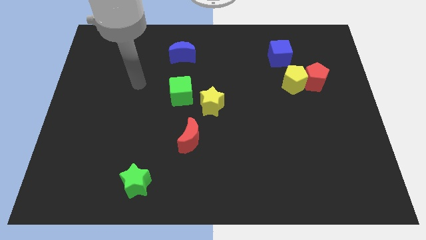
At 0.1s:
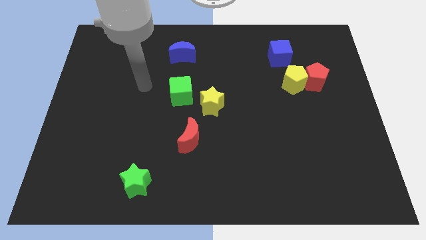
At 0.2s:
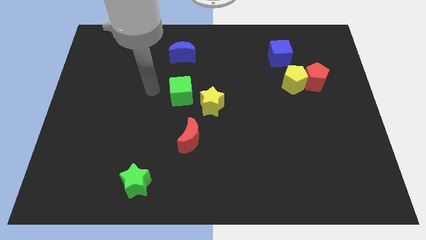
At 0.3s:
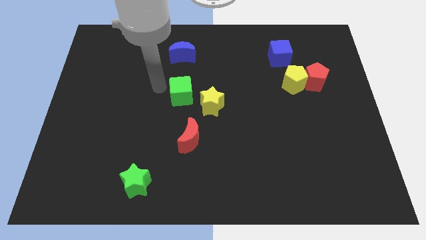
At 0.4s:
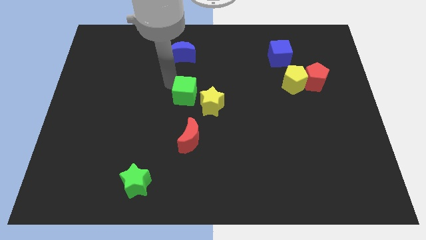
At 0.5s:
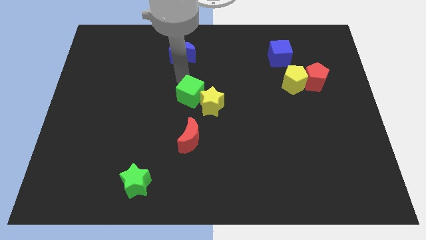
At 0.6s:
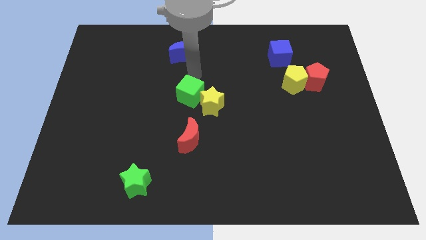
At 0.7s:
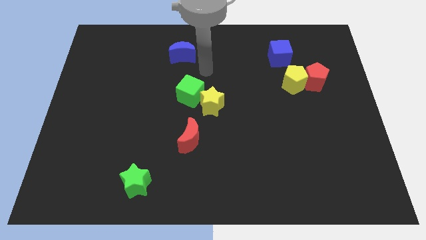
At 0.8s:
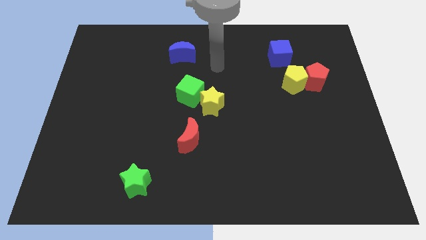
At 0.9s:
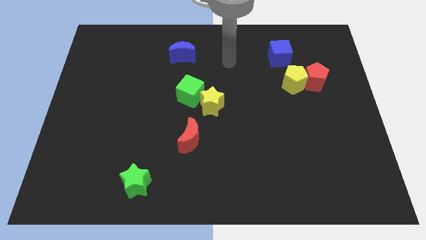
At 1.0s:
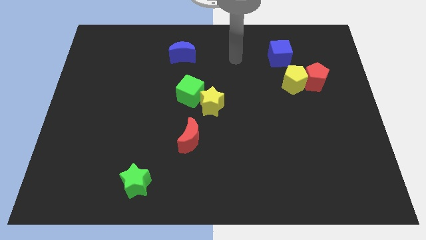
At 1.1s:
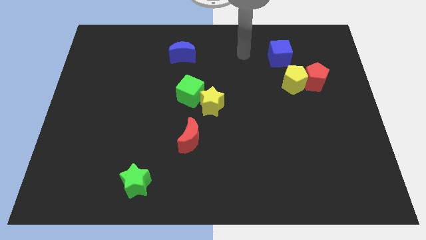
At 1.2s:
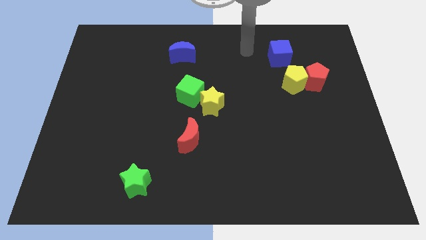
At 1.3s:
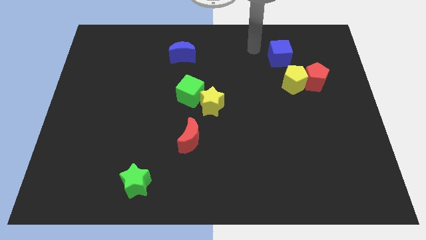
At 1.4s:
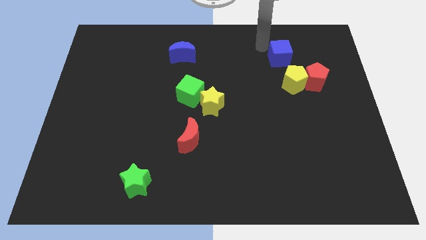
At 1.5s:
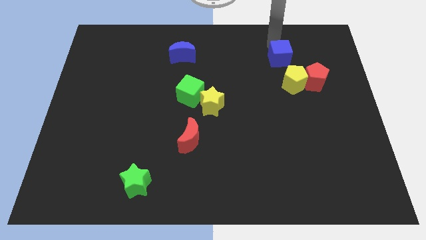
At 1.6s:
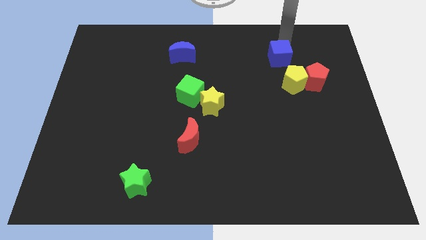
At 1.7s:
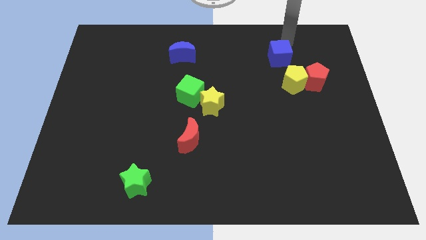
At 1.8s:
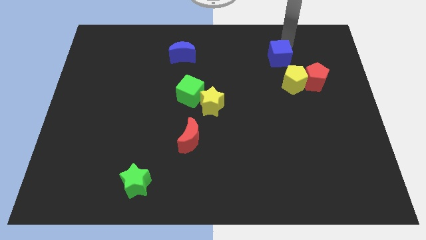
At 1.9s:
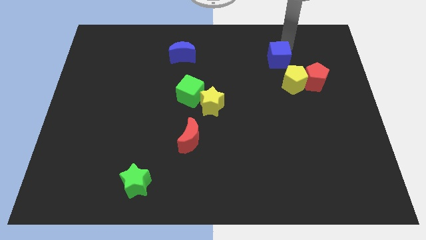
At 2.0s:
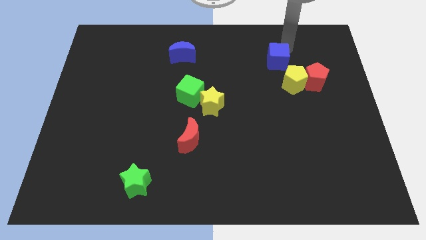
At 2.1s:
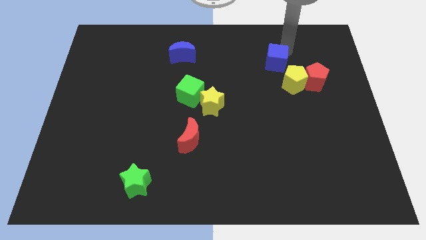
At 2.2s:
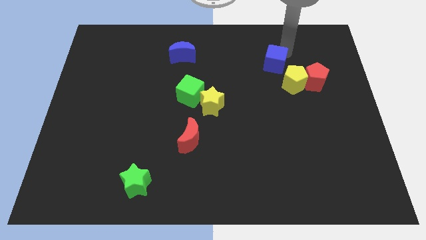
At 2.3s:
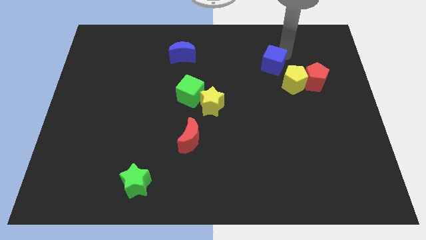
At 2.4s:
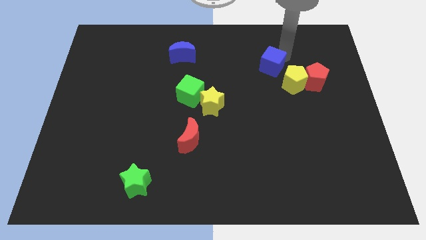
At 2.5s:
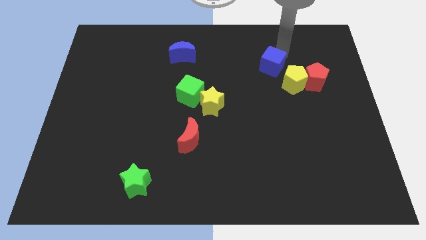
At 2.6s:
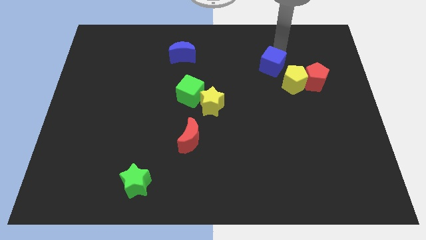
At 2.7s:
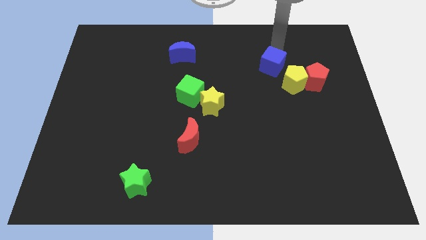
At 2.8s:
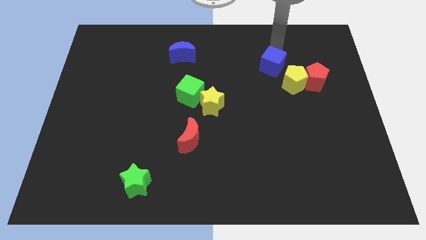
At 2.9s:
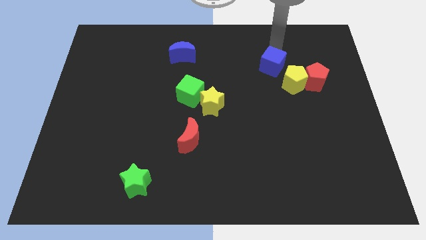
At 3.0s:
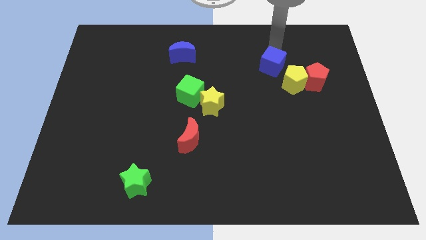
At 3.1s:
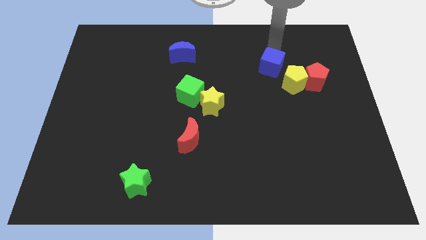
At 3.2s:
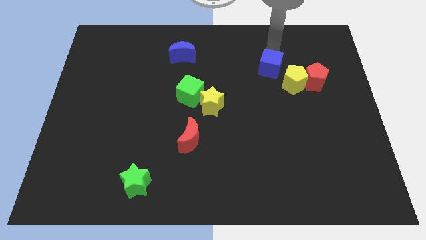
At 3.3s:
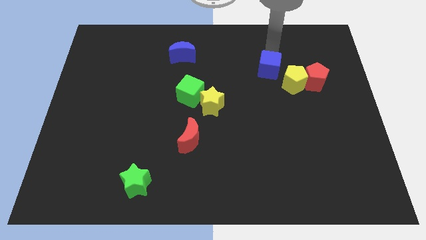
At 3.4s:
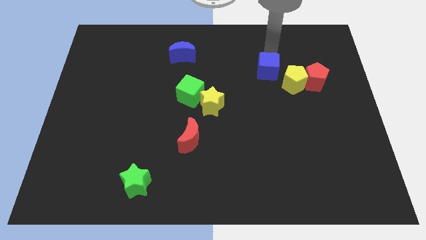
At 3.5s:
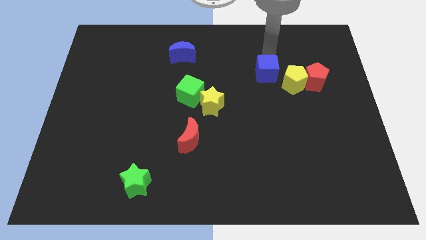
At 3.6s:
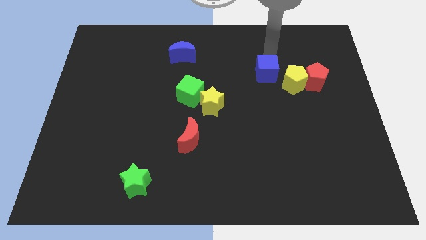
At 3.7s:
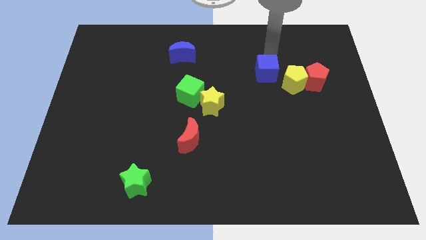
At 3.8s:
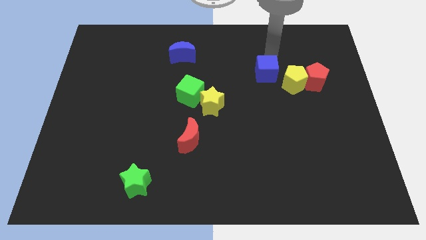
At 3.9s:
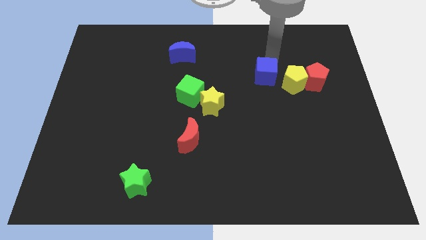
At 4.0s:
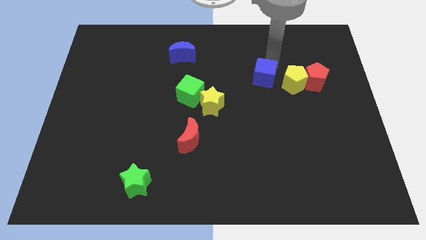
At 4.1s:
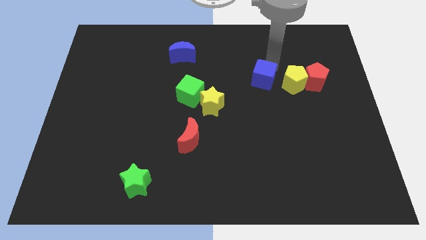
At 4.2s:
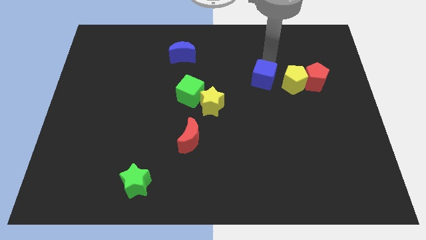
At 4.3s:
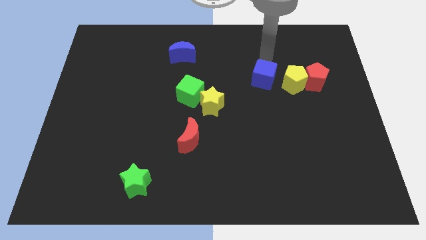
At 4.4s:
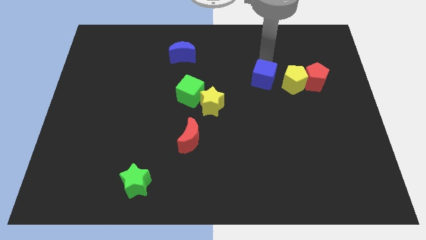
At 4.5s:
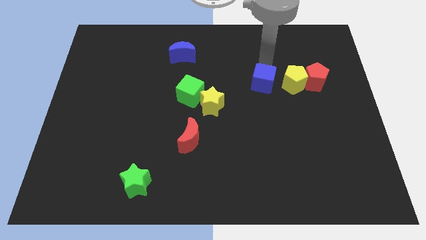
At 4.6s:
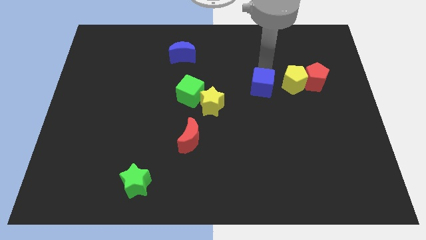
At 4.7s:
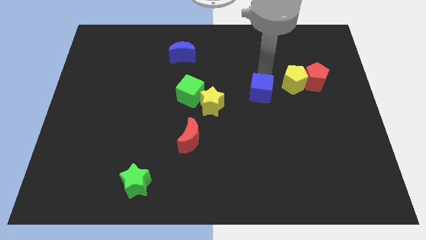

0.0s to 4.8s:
push the blue cube to the right side of the yellow star

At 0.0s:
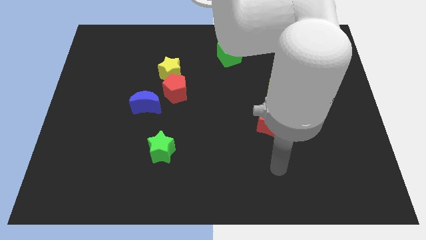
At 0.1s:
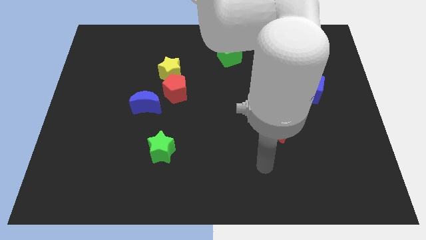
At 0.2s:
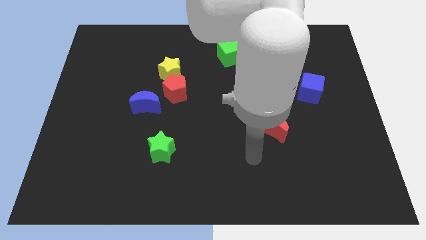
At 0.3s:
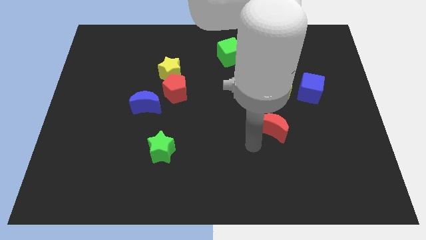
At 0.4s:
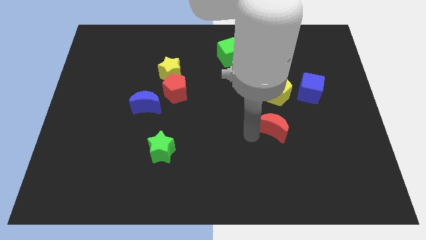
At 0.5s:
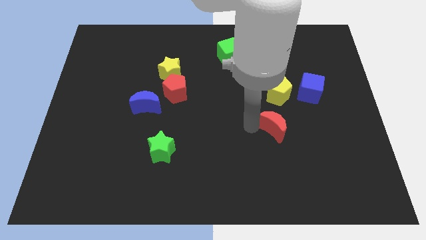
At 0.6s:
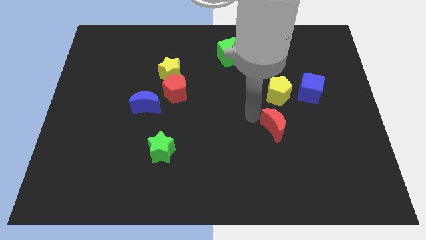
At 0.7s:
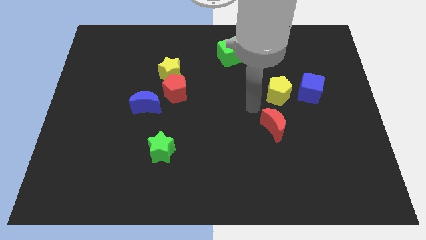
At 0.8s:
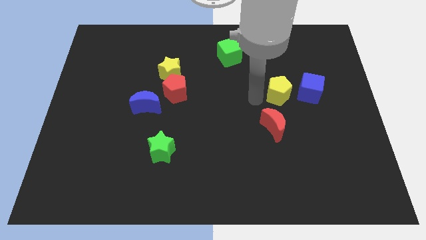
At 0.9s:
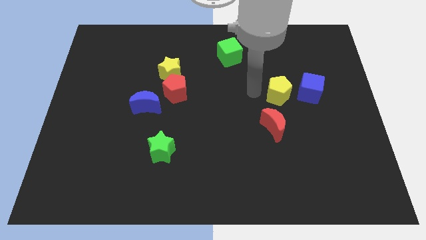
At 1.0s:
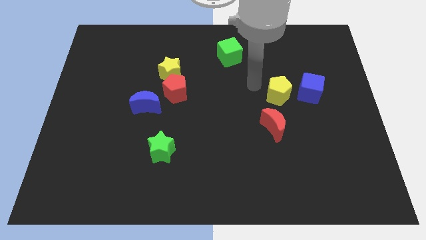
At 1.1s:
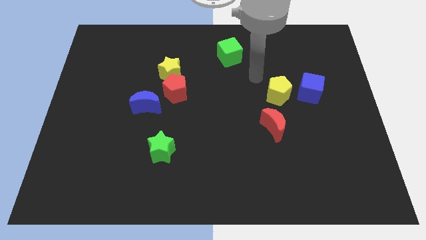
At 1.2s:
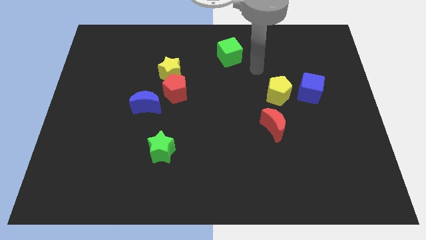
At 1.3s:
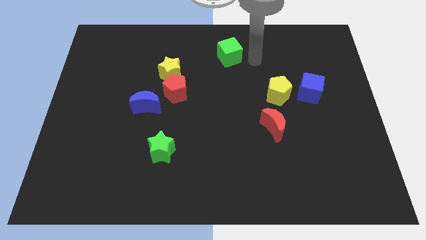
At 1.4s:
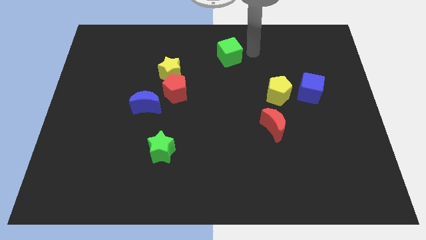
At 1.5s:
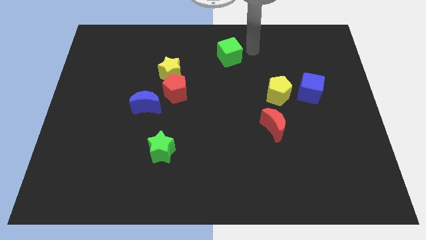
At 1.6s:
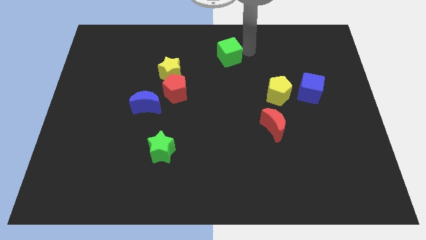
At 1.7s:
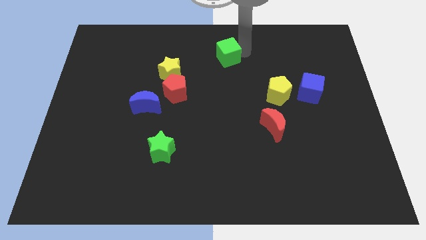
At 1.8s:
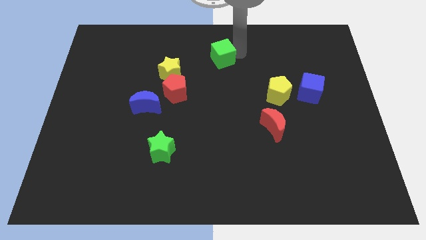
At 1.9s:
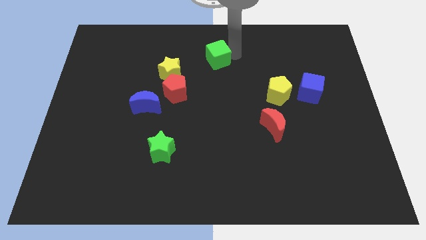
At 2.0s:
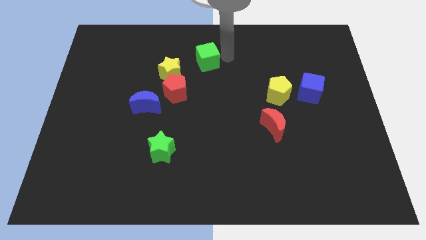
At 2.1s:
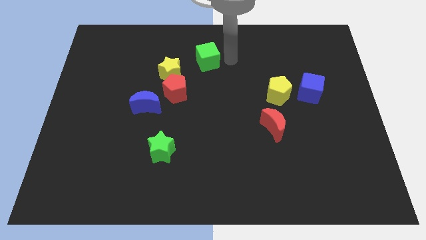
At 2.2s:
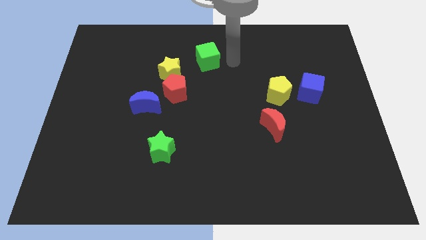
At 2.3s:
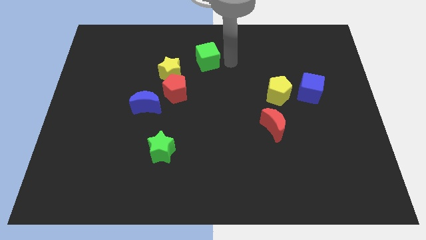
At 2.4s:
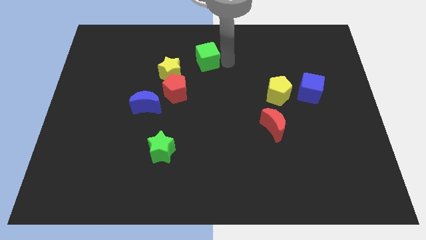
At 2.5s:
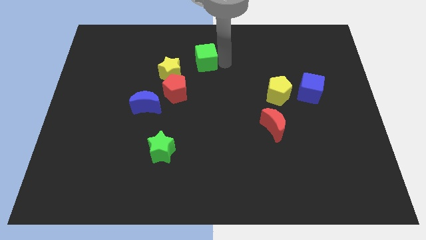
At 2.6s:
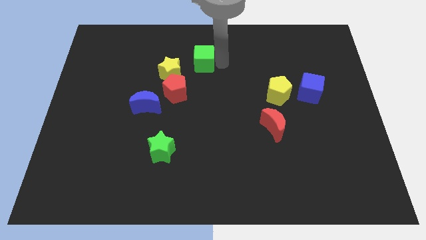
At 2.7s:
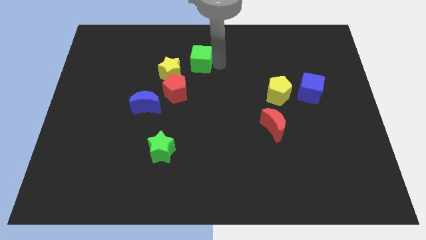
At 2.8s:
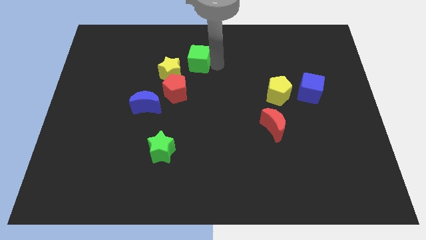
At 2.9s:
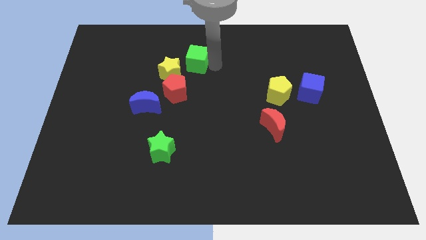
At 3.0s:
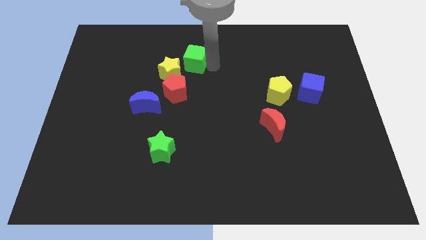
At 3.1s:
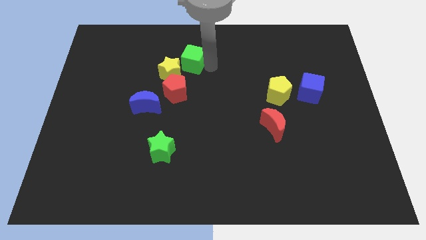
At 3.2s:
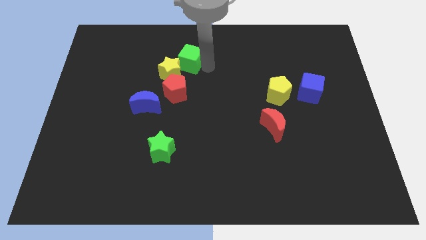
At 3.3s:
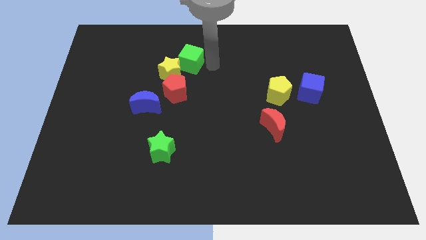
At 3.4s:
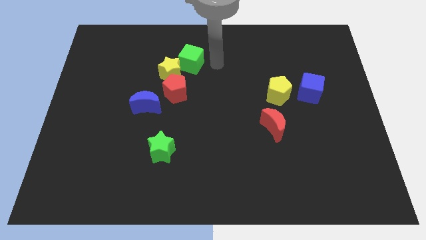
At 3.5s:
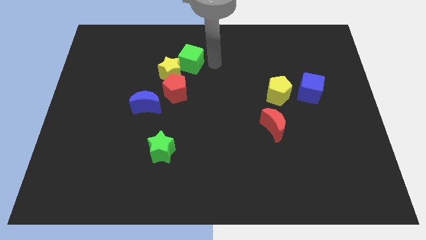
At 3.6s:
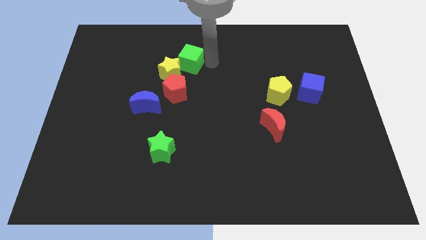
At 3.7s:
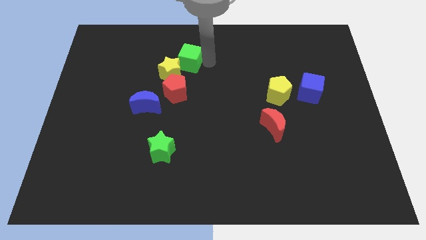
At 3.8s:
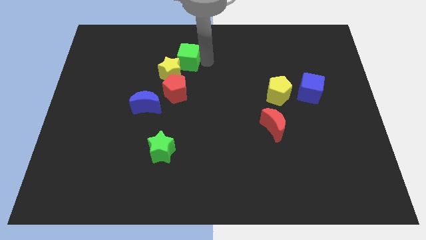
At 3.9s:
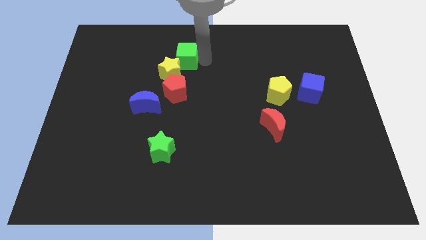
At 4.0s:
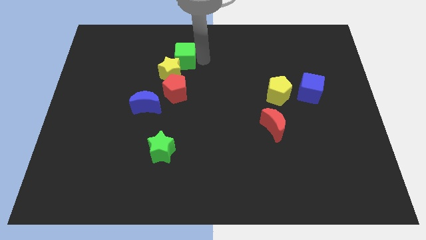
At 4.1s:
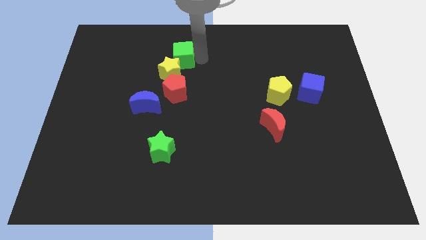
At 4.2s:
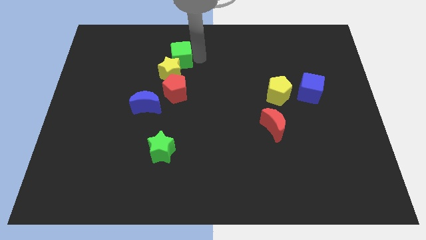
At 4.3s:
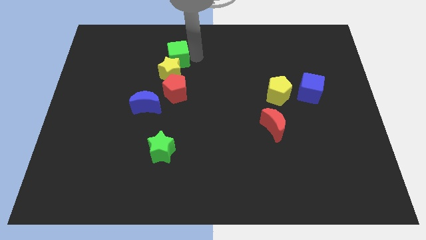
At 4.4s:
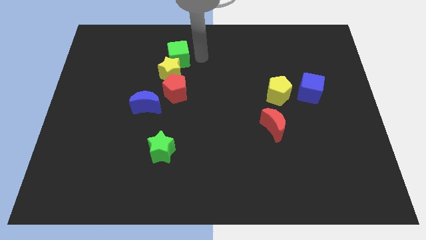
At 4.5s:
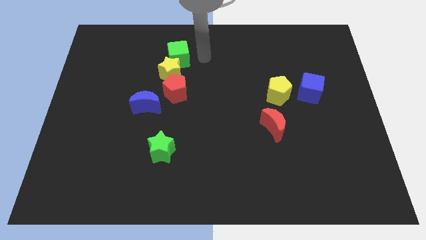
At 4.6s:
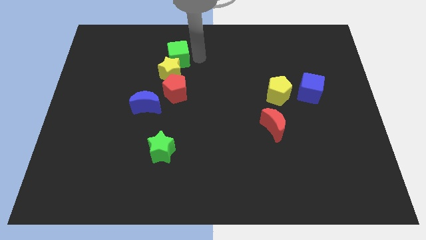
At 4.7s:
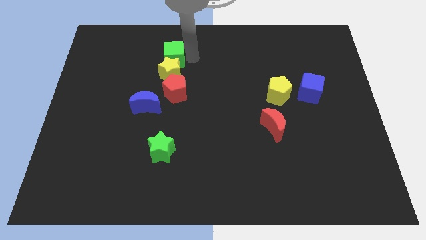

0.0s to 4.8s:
move the green cube to the top left of the yellow star
